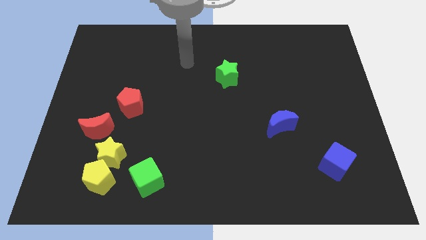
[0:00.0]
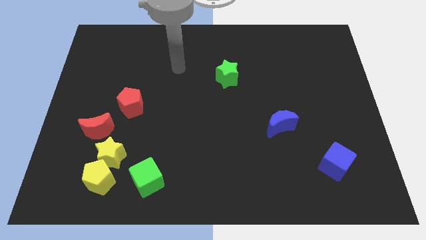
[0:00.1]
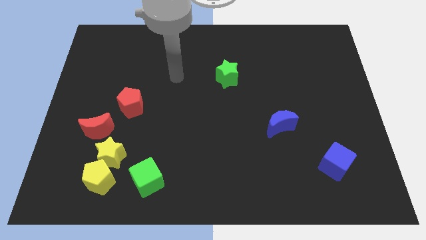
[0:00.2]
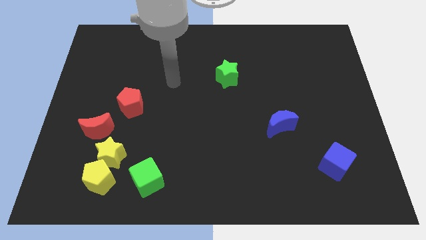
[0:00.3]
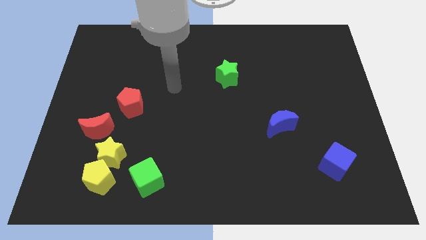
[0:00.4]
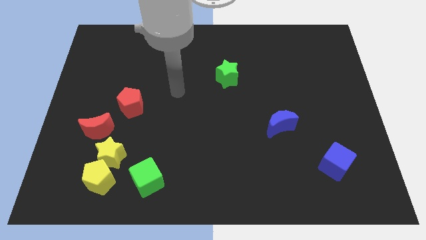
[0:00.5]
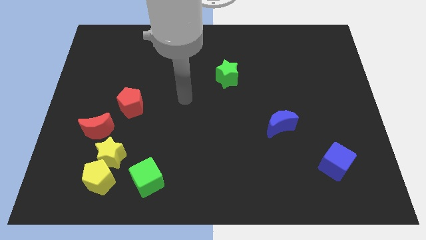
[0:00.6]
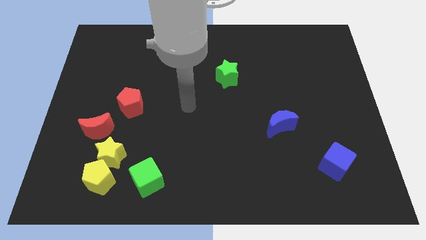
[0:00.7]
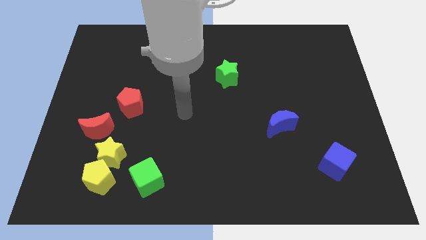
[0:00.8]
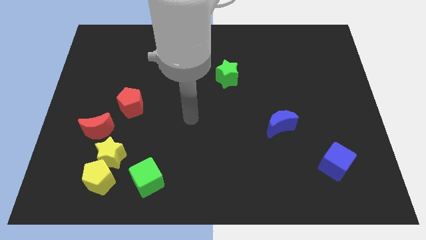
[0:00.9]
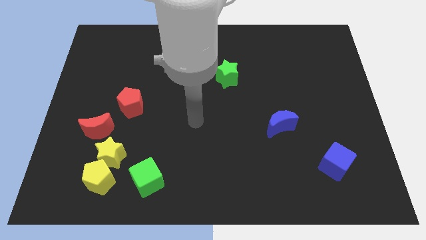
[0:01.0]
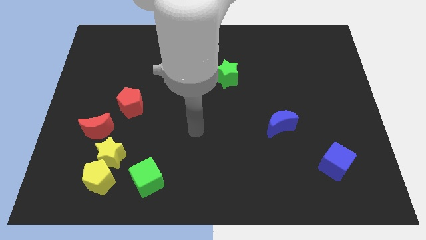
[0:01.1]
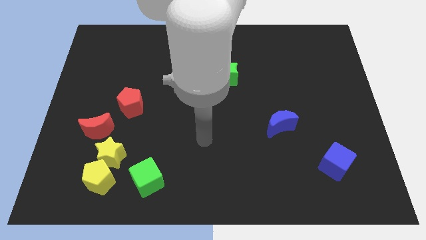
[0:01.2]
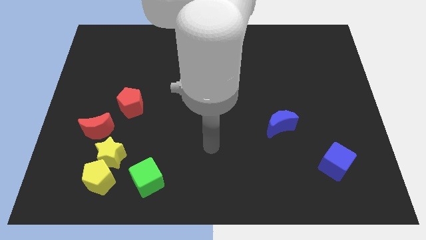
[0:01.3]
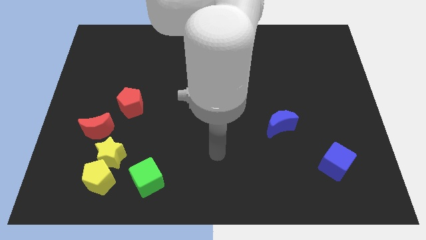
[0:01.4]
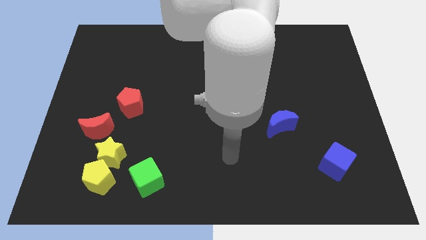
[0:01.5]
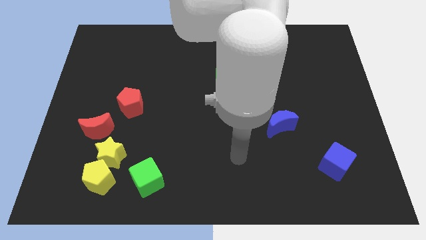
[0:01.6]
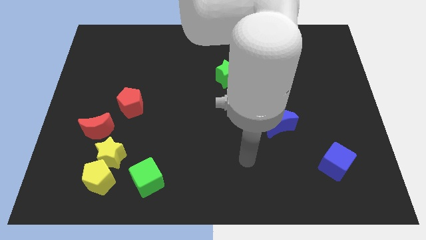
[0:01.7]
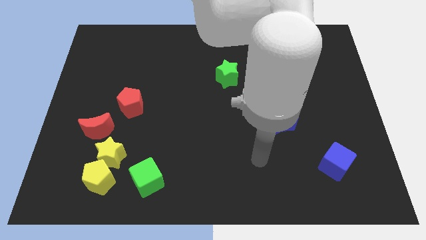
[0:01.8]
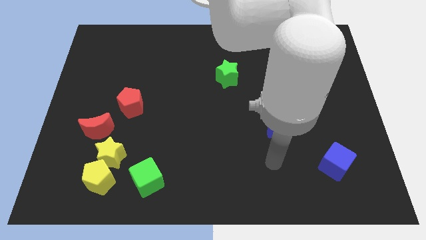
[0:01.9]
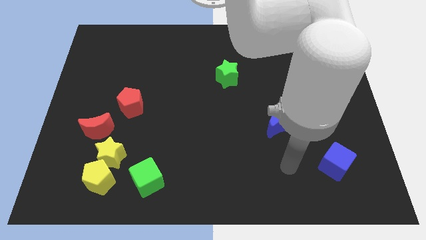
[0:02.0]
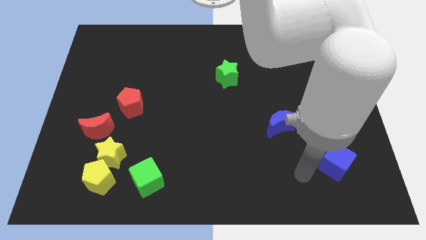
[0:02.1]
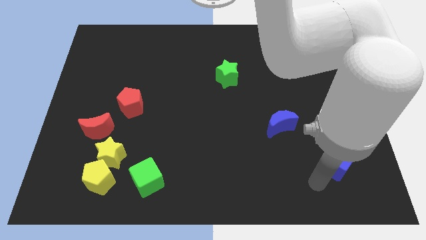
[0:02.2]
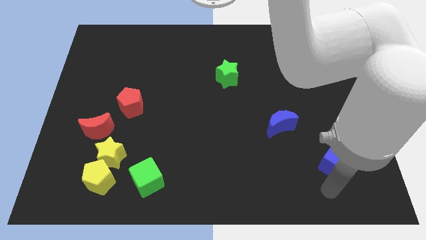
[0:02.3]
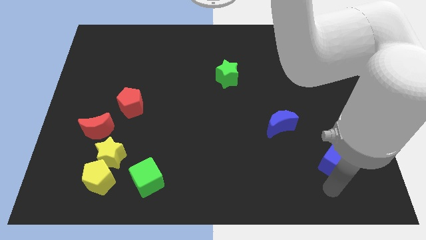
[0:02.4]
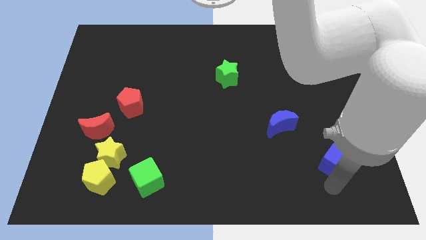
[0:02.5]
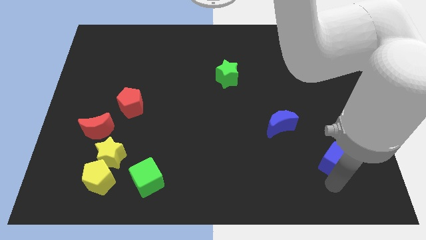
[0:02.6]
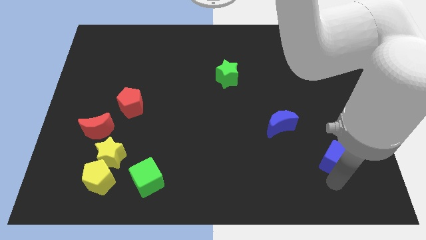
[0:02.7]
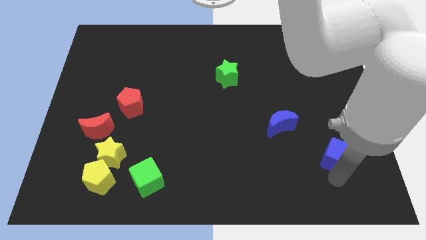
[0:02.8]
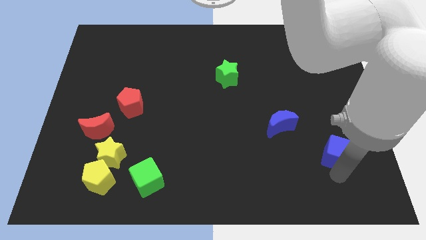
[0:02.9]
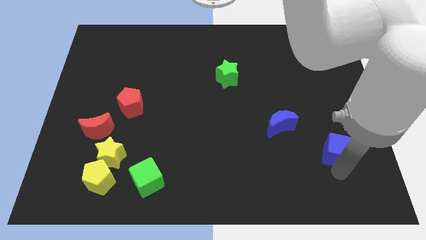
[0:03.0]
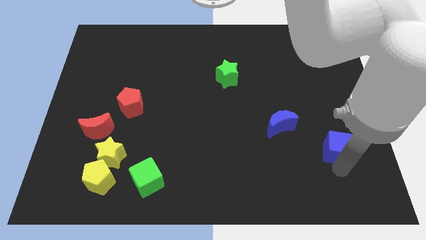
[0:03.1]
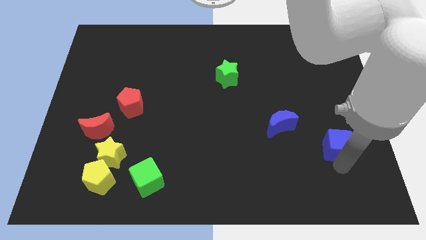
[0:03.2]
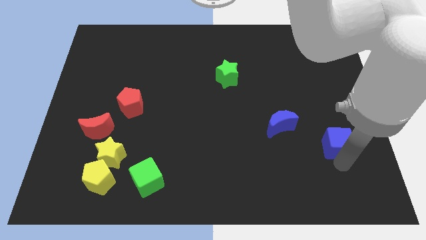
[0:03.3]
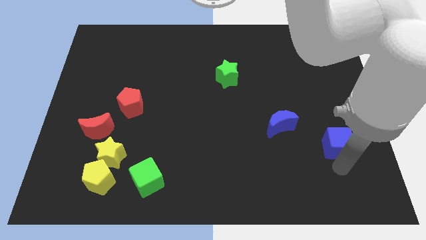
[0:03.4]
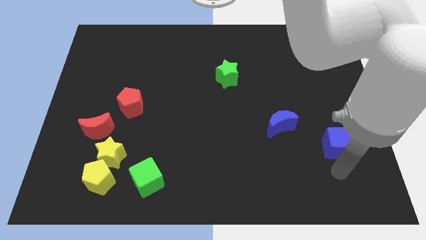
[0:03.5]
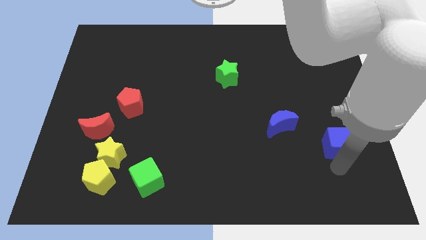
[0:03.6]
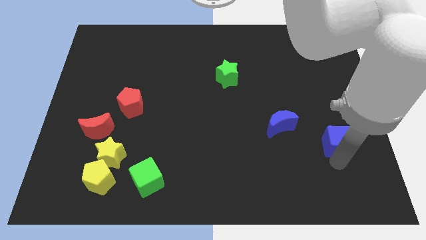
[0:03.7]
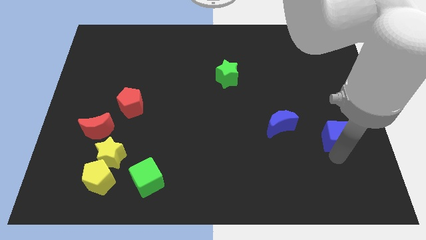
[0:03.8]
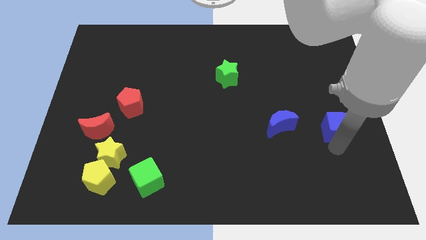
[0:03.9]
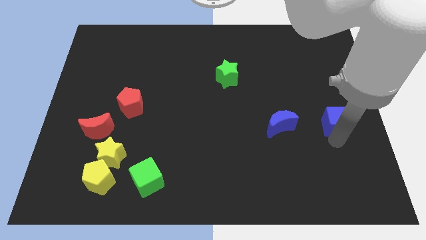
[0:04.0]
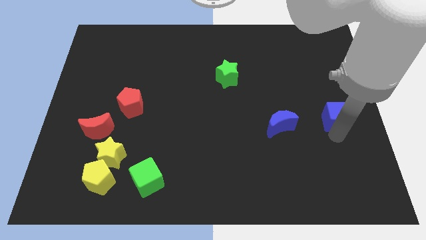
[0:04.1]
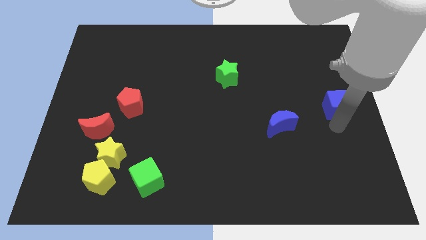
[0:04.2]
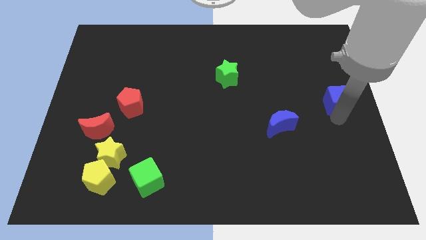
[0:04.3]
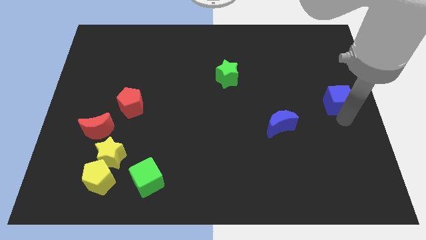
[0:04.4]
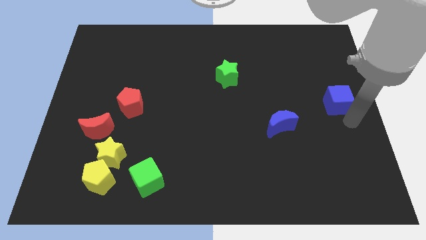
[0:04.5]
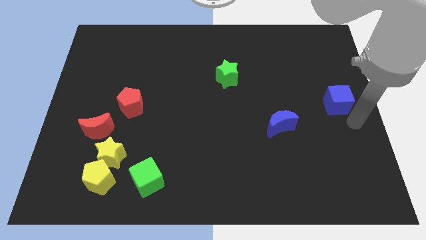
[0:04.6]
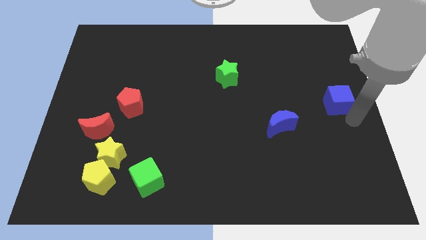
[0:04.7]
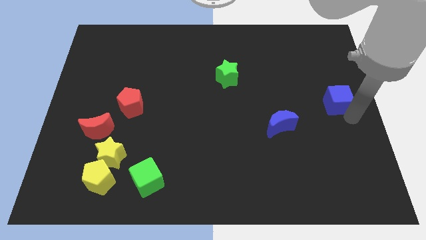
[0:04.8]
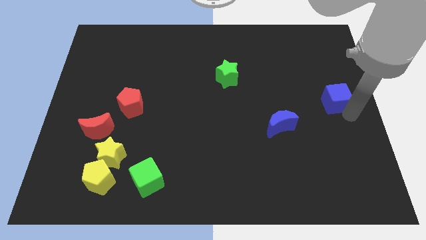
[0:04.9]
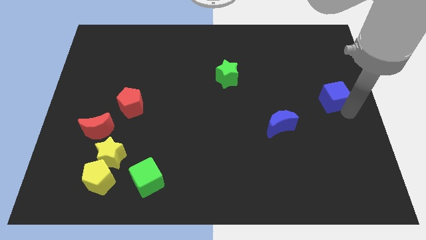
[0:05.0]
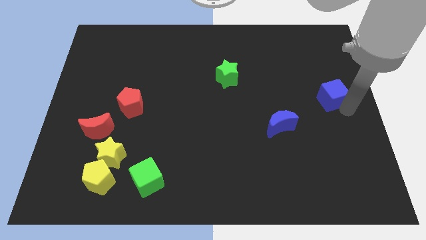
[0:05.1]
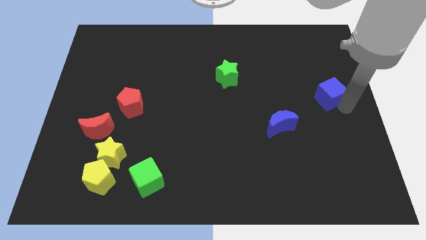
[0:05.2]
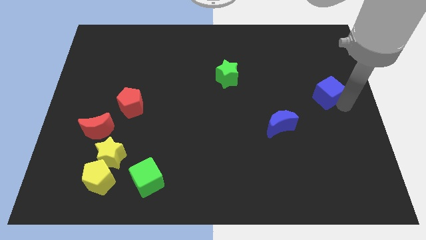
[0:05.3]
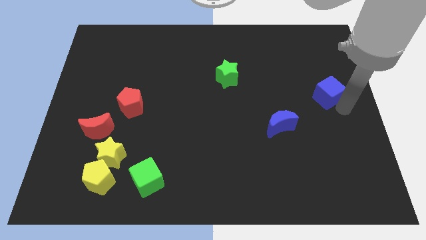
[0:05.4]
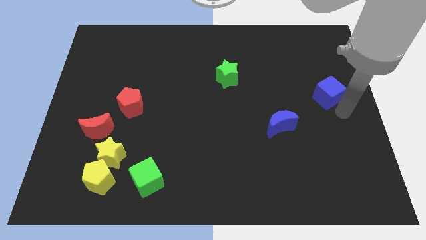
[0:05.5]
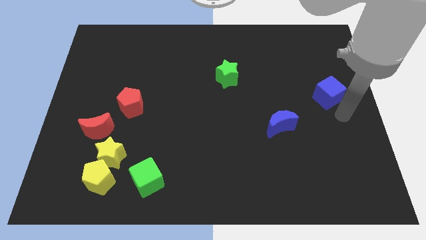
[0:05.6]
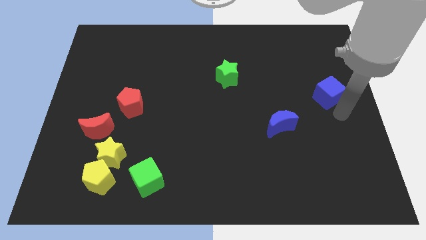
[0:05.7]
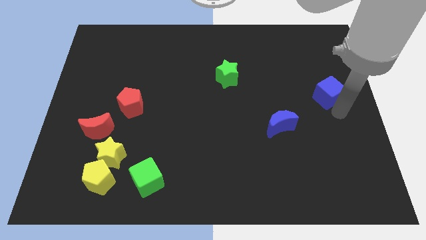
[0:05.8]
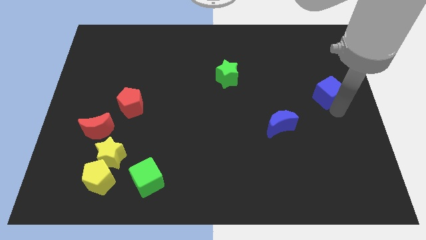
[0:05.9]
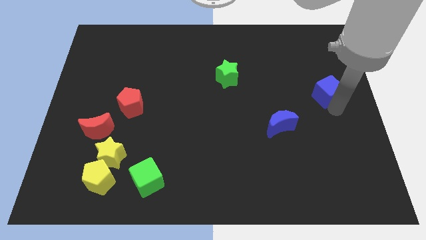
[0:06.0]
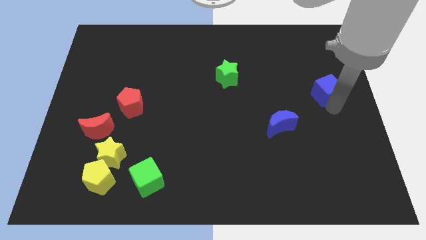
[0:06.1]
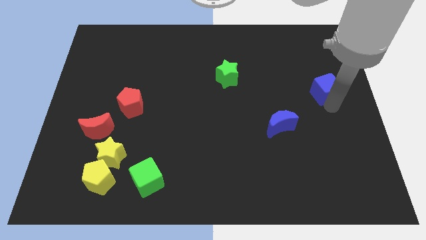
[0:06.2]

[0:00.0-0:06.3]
push the blue cube up

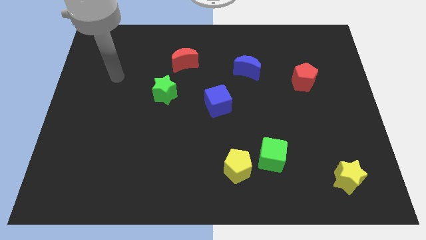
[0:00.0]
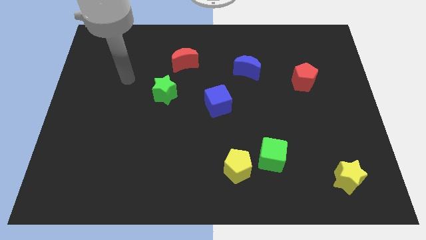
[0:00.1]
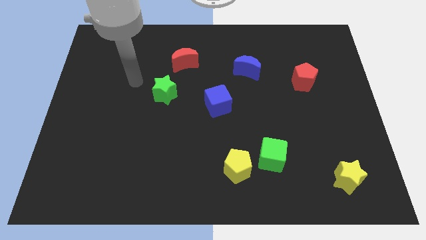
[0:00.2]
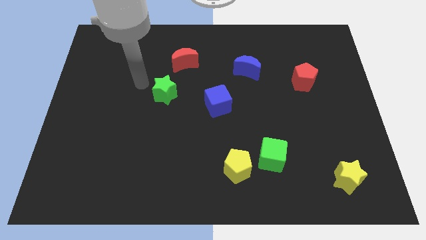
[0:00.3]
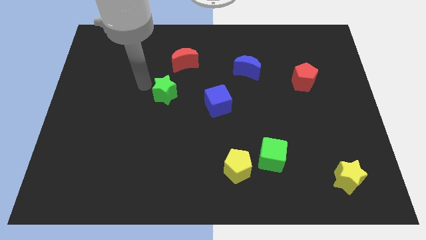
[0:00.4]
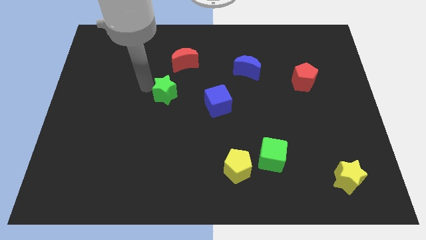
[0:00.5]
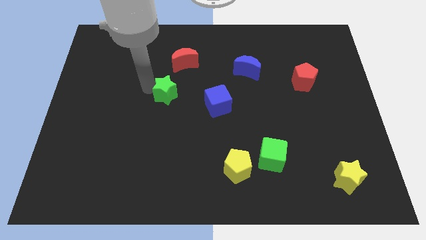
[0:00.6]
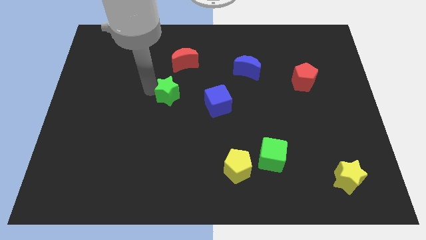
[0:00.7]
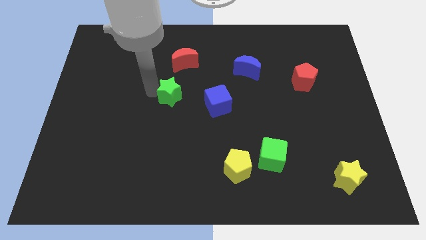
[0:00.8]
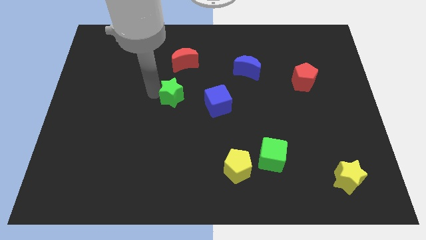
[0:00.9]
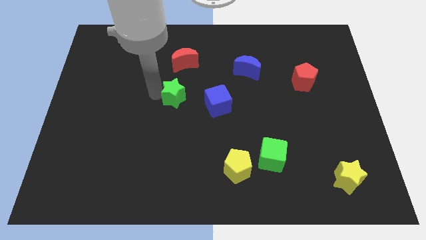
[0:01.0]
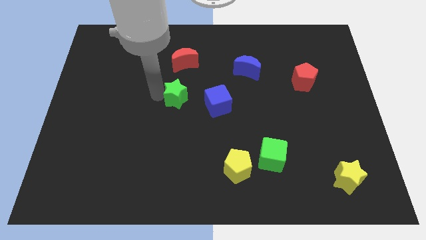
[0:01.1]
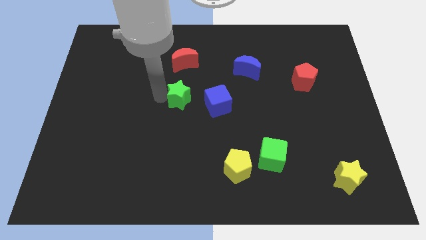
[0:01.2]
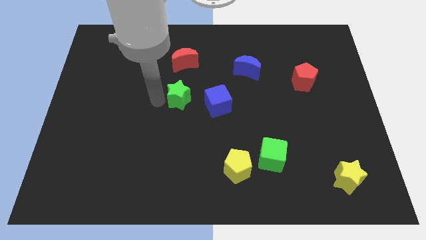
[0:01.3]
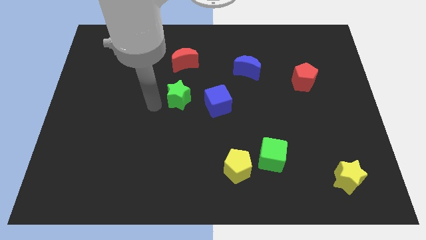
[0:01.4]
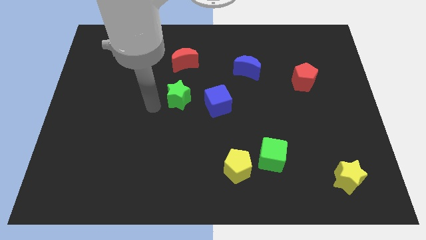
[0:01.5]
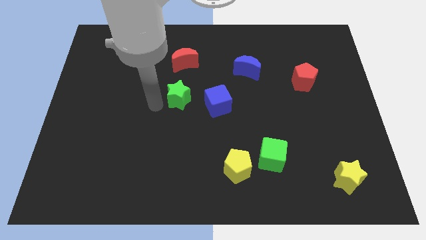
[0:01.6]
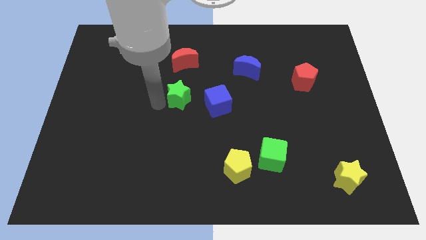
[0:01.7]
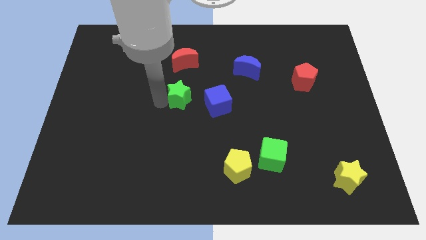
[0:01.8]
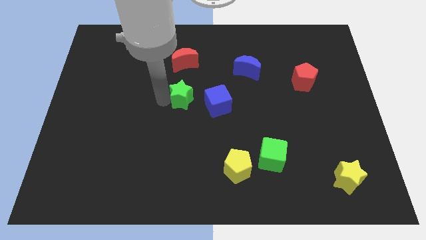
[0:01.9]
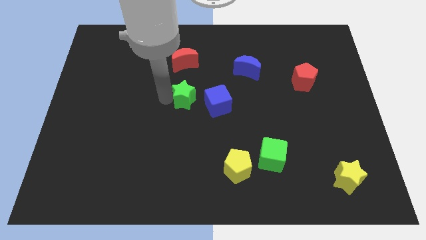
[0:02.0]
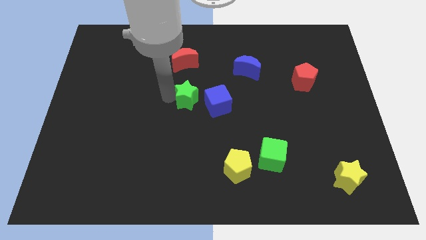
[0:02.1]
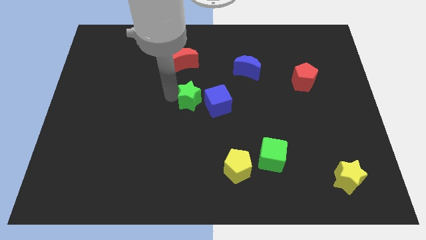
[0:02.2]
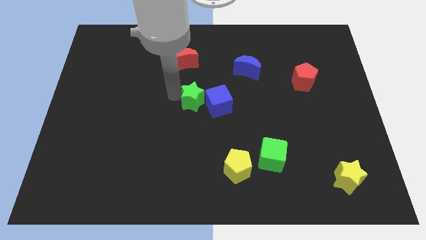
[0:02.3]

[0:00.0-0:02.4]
slide the green star a bit to the right
